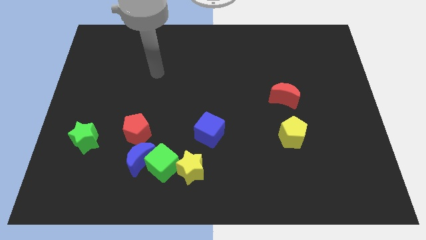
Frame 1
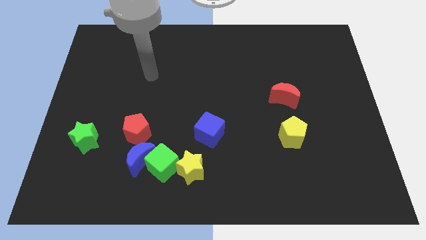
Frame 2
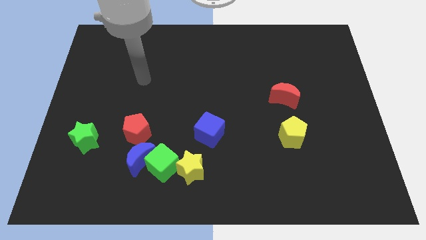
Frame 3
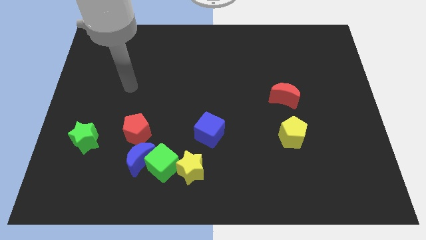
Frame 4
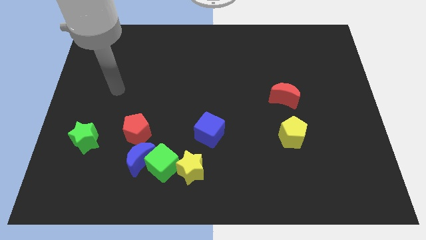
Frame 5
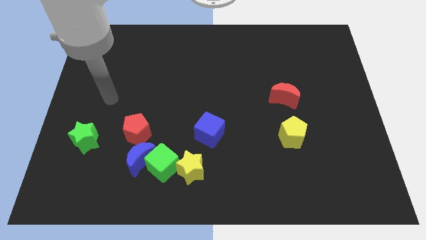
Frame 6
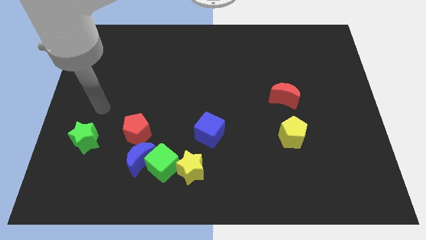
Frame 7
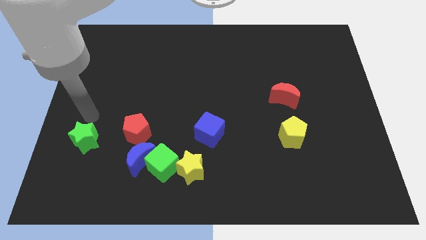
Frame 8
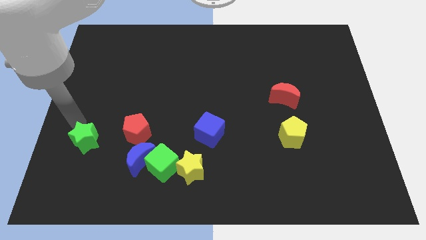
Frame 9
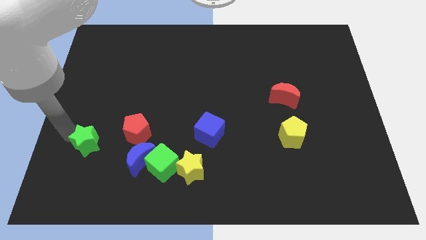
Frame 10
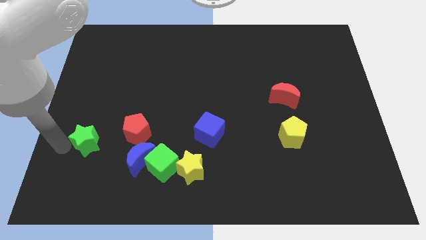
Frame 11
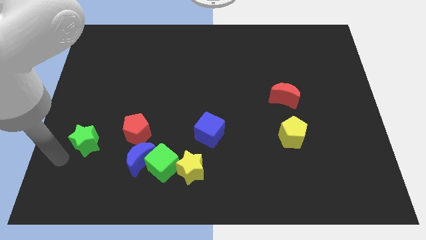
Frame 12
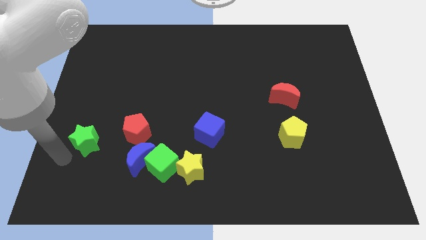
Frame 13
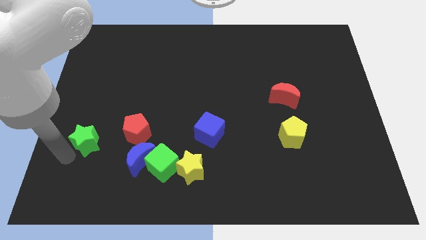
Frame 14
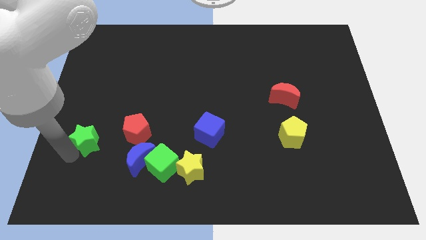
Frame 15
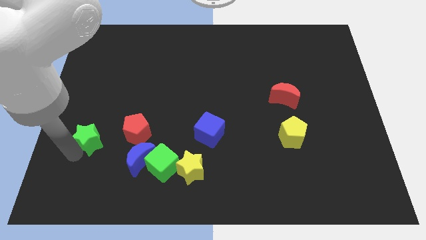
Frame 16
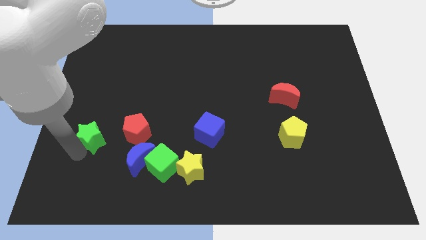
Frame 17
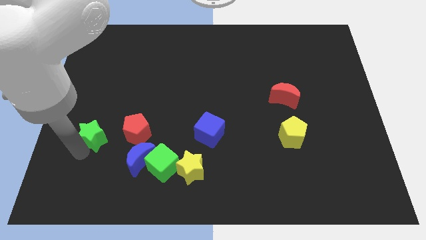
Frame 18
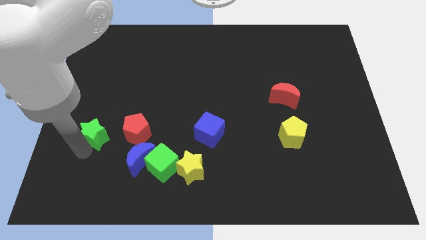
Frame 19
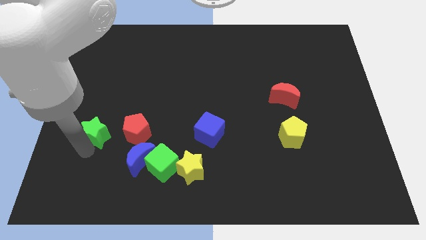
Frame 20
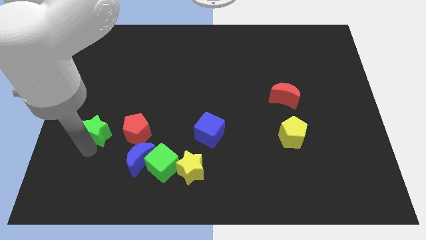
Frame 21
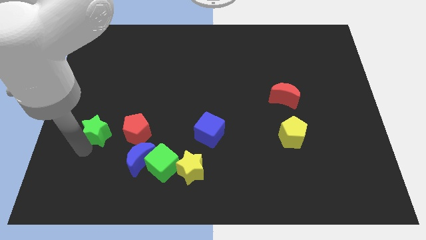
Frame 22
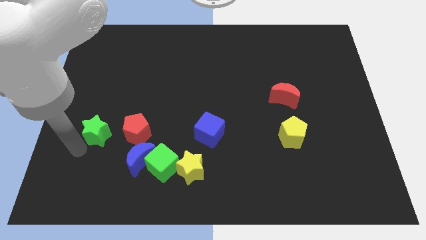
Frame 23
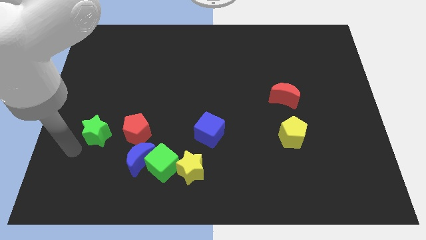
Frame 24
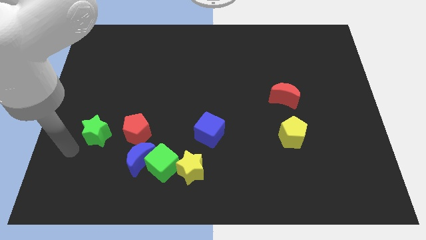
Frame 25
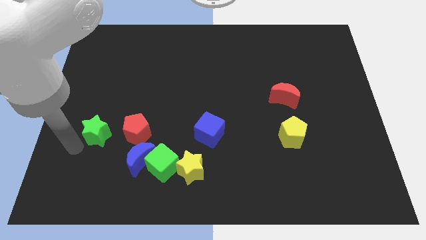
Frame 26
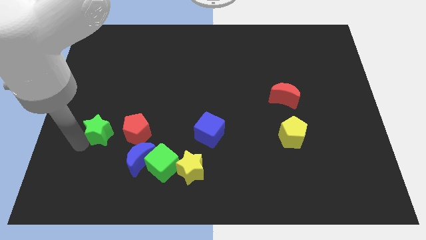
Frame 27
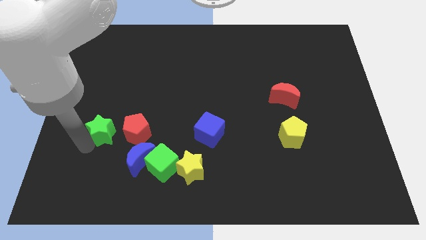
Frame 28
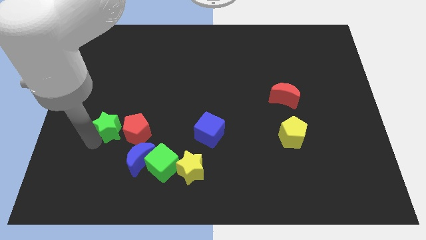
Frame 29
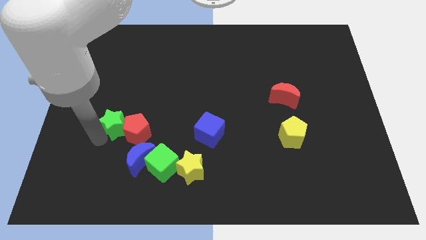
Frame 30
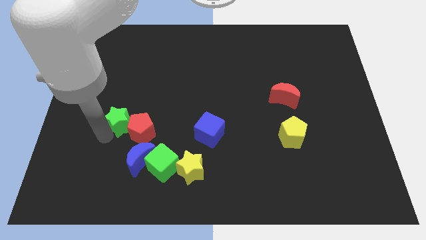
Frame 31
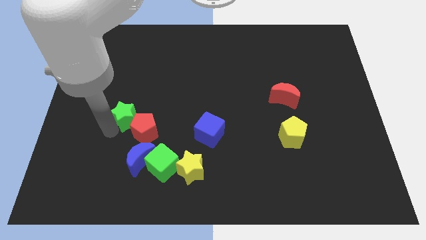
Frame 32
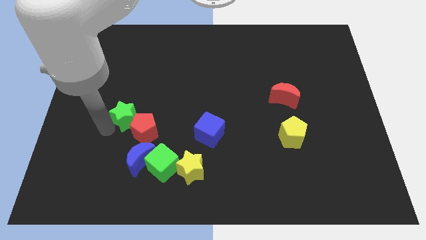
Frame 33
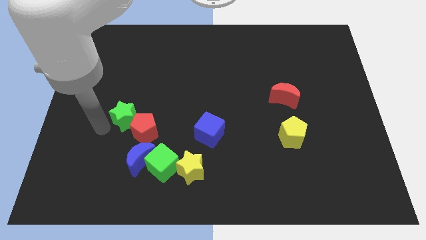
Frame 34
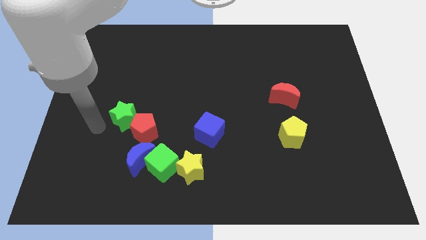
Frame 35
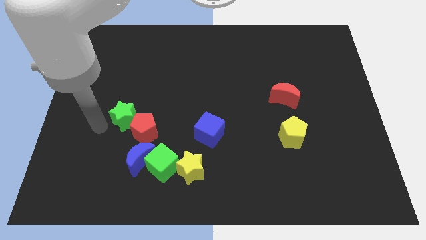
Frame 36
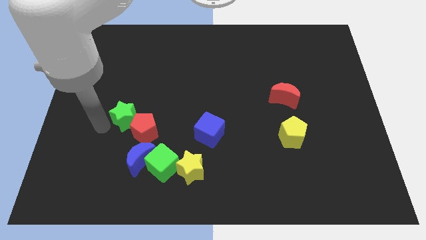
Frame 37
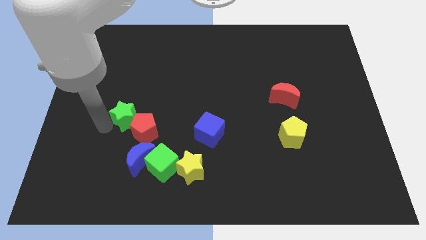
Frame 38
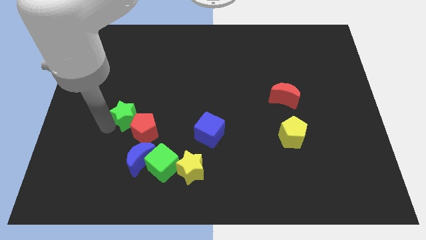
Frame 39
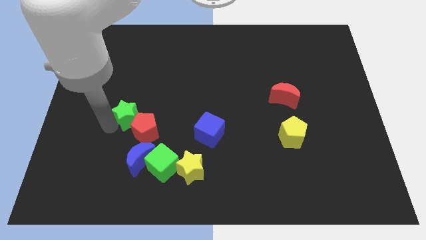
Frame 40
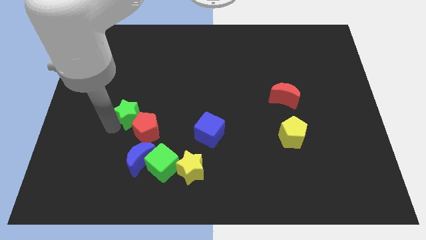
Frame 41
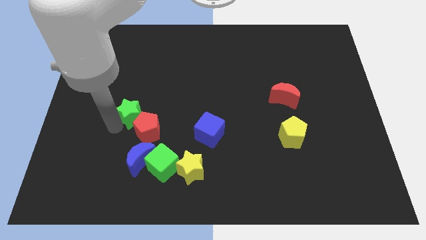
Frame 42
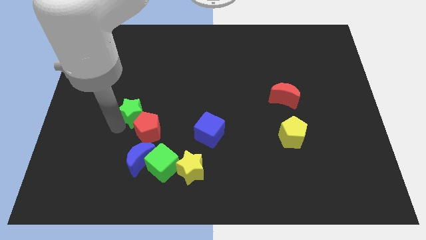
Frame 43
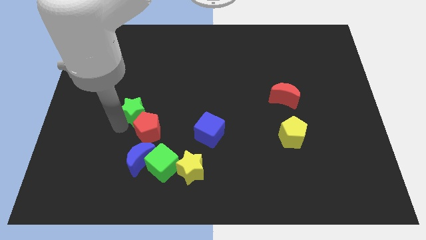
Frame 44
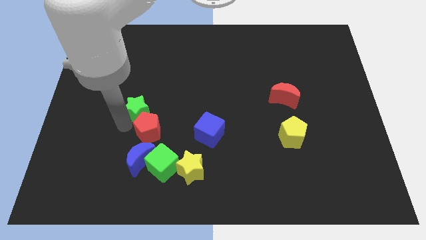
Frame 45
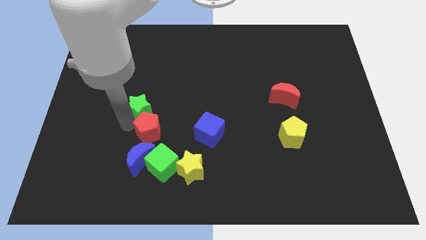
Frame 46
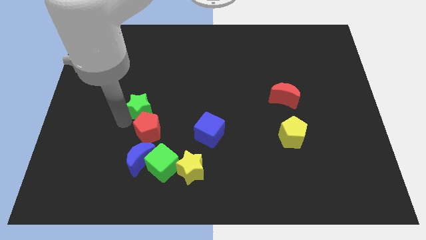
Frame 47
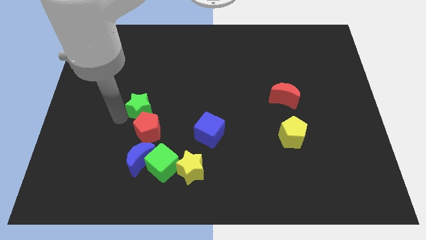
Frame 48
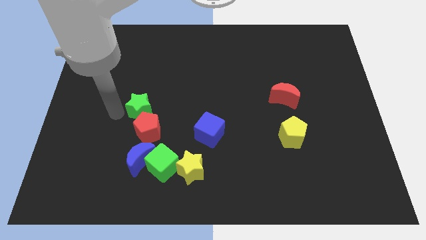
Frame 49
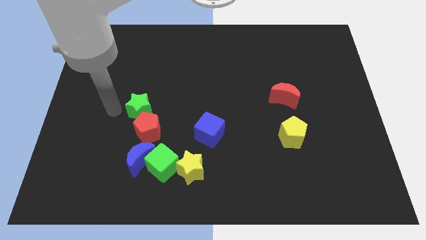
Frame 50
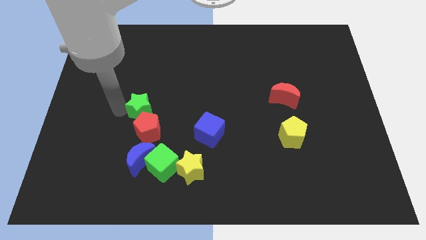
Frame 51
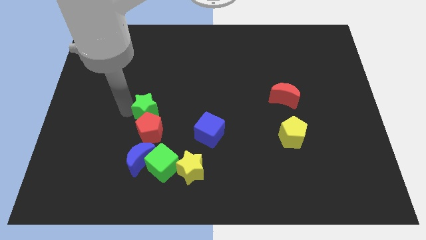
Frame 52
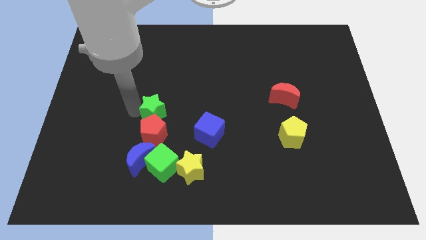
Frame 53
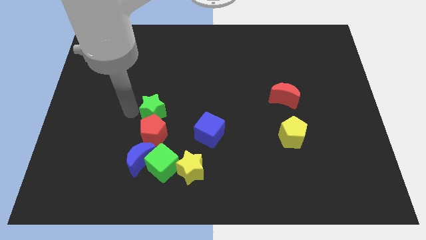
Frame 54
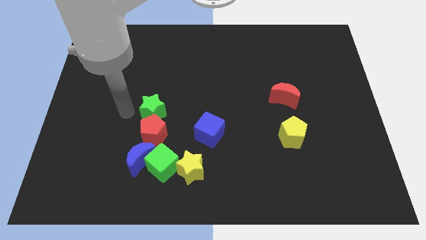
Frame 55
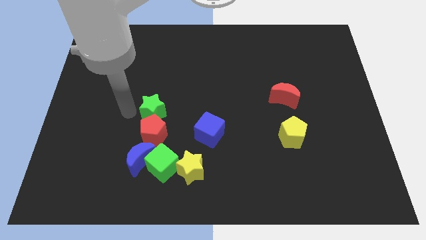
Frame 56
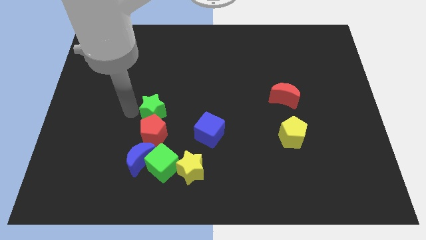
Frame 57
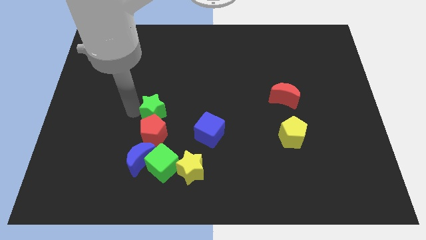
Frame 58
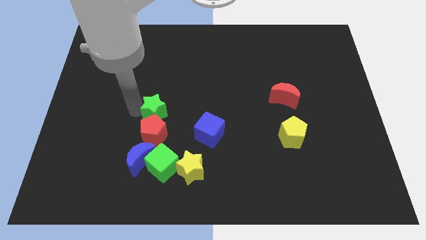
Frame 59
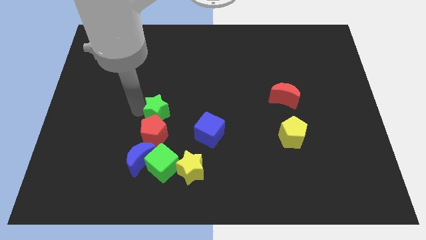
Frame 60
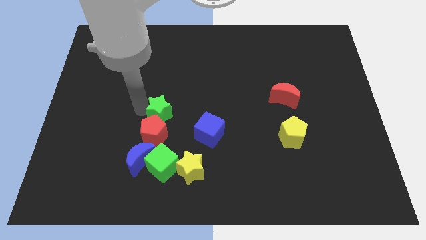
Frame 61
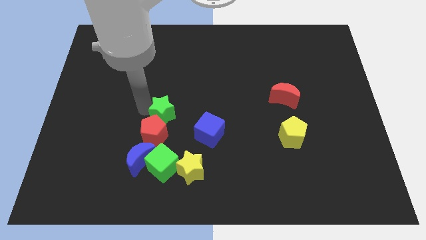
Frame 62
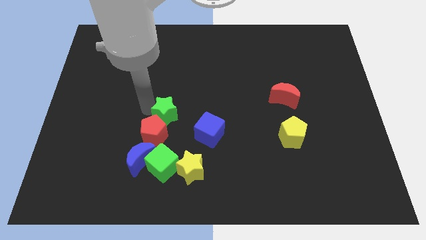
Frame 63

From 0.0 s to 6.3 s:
put the green star diagonally up and to the left of the blue cube

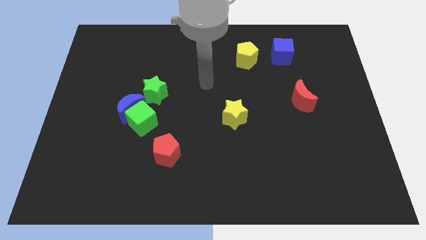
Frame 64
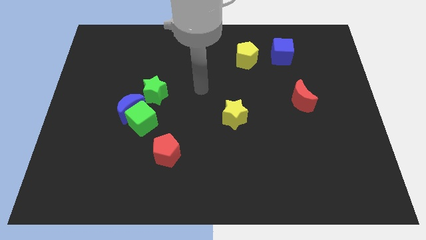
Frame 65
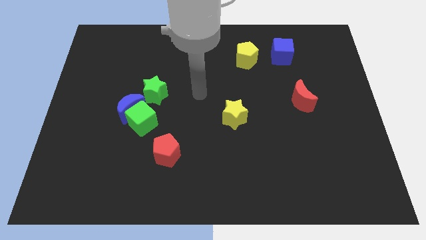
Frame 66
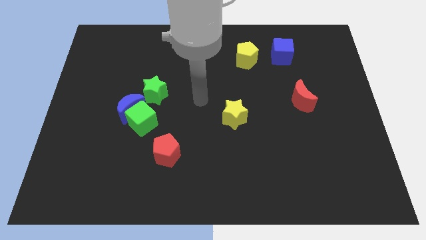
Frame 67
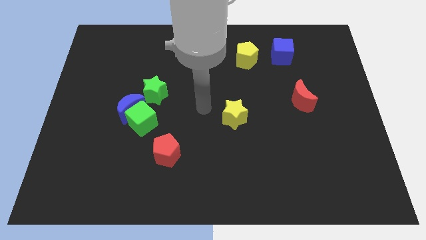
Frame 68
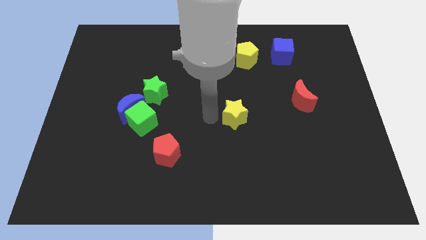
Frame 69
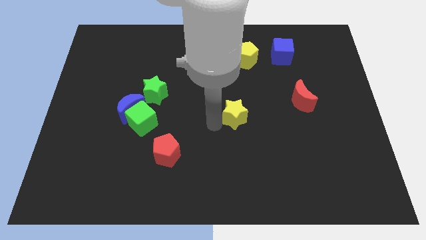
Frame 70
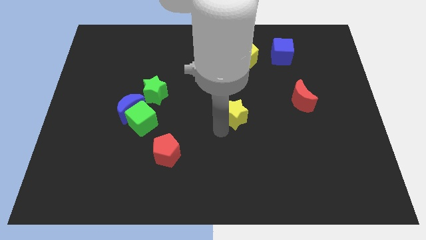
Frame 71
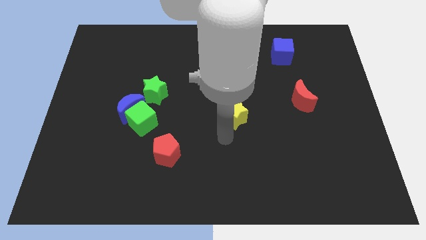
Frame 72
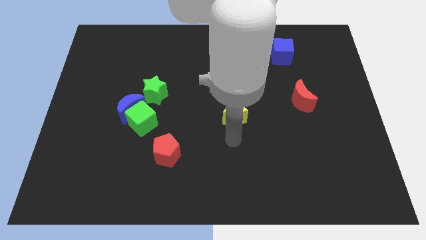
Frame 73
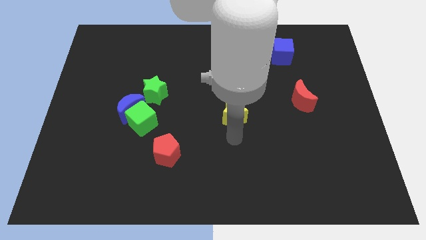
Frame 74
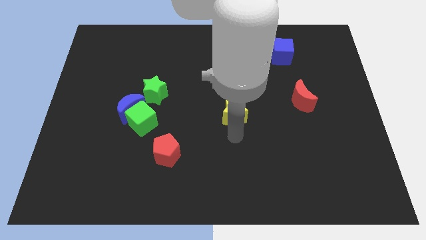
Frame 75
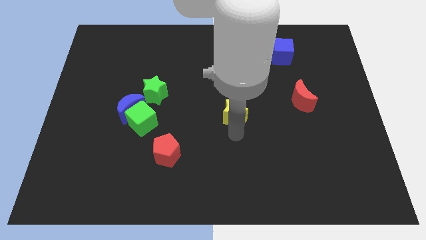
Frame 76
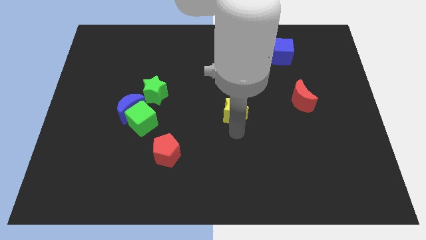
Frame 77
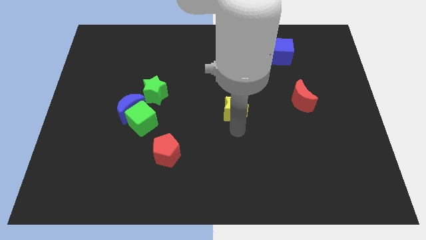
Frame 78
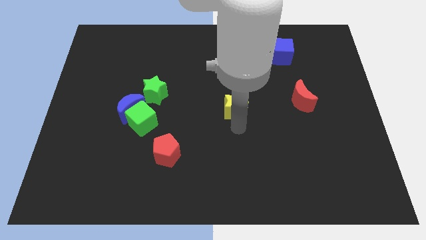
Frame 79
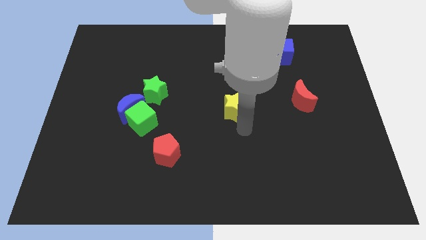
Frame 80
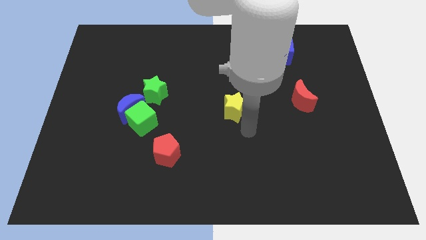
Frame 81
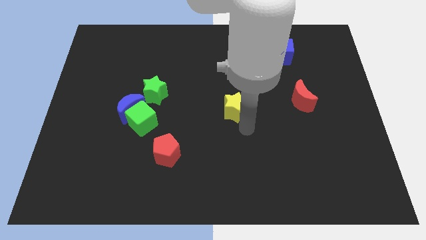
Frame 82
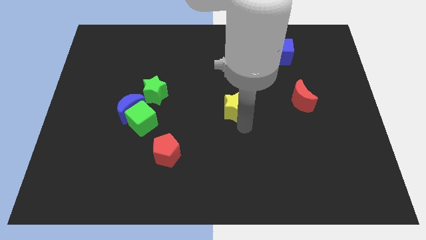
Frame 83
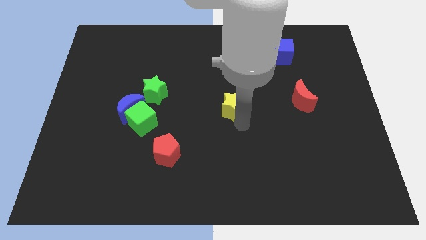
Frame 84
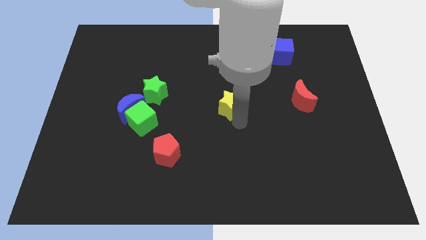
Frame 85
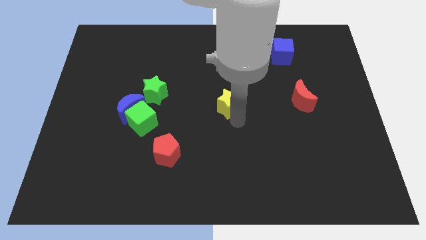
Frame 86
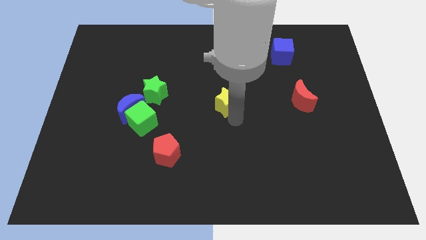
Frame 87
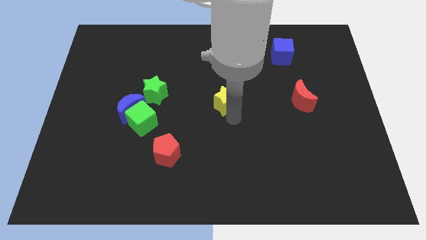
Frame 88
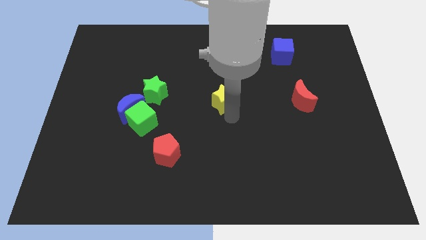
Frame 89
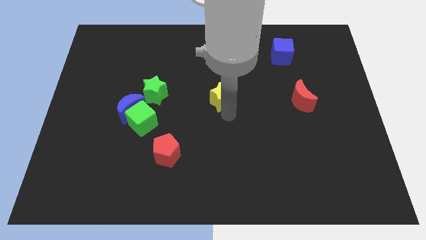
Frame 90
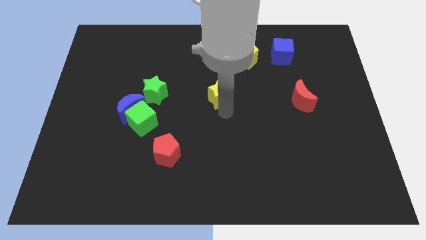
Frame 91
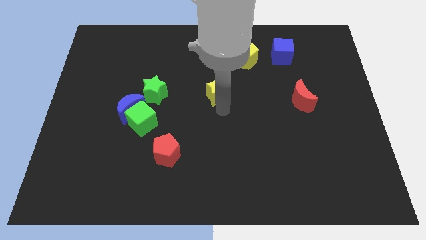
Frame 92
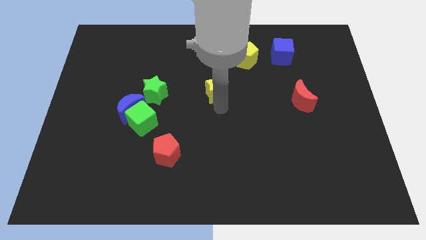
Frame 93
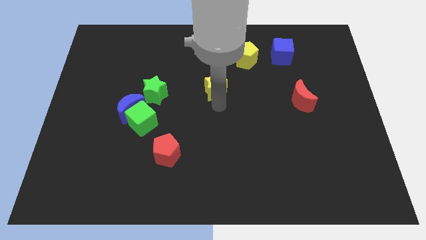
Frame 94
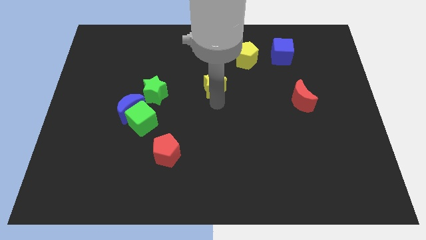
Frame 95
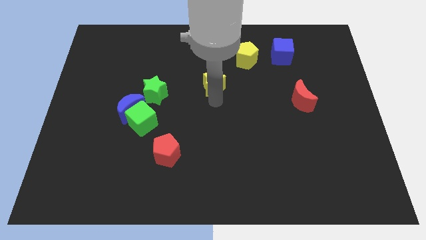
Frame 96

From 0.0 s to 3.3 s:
slide the yellow star to the bottom left side of the yellow pentagon
